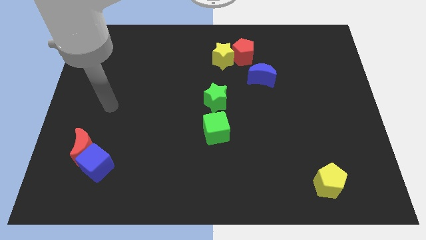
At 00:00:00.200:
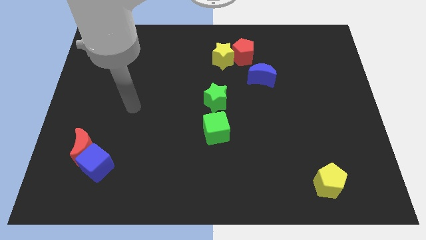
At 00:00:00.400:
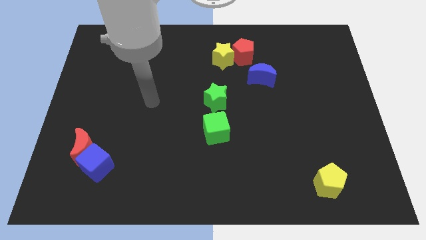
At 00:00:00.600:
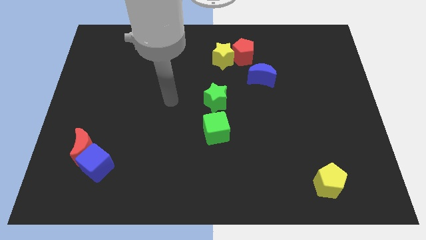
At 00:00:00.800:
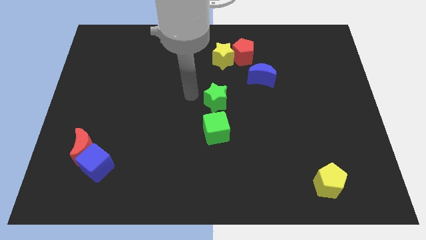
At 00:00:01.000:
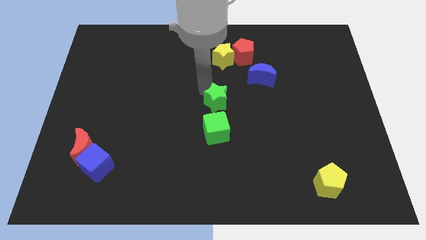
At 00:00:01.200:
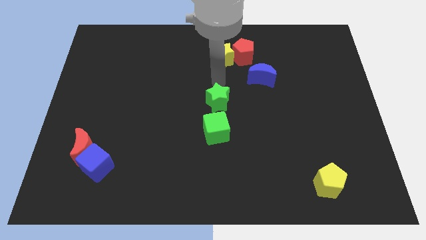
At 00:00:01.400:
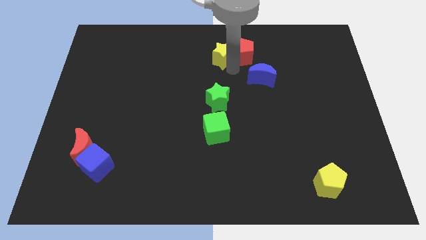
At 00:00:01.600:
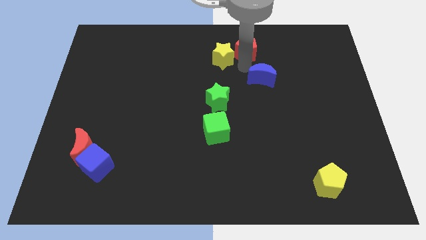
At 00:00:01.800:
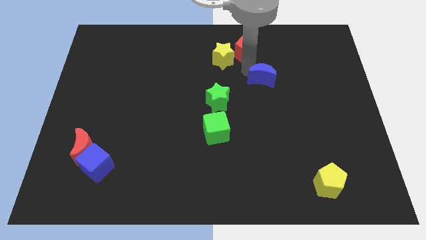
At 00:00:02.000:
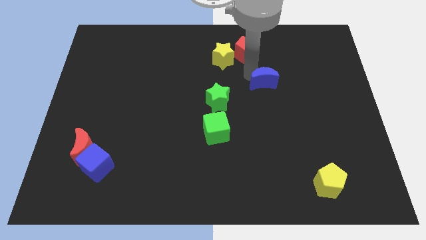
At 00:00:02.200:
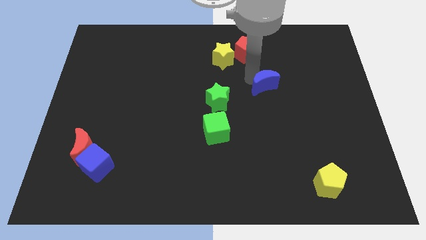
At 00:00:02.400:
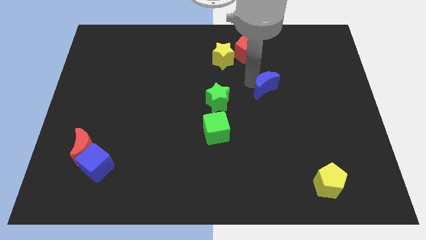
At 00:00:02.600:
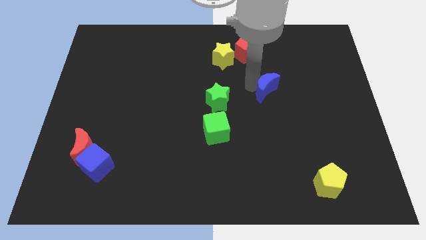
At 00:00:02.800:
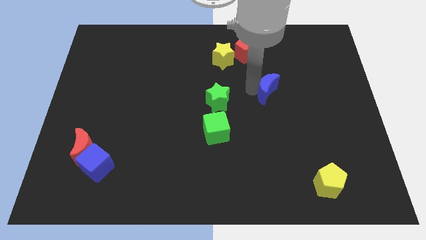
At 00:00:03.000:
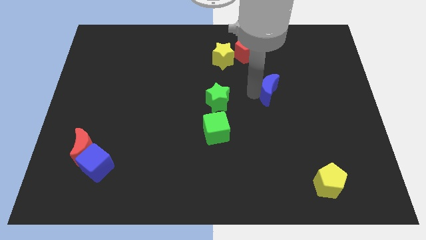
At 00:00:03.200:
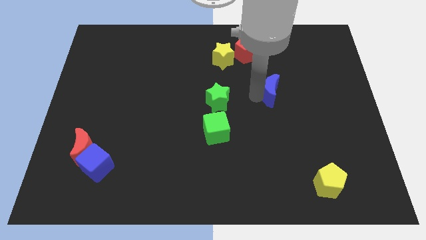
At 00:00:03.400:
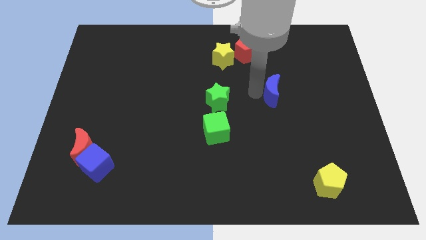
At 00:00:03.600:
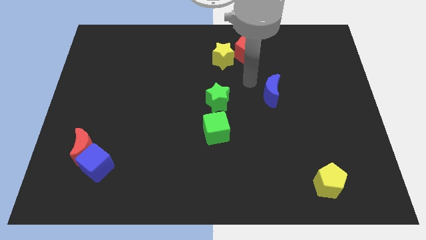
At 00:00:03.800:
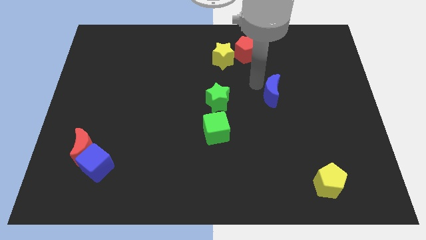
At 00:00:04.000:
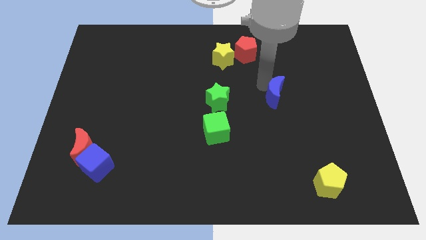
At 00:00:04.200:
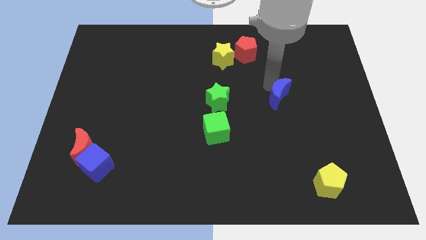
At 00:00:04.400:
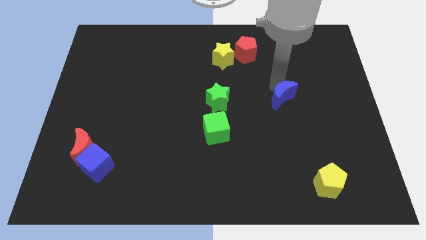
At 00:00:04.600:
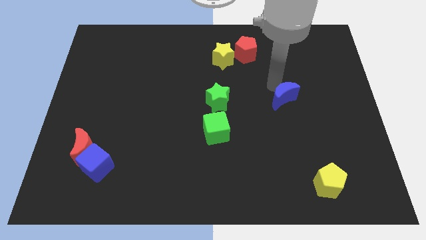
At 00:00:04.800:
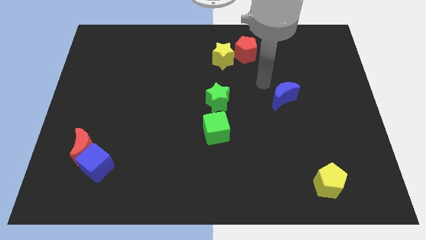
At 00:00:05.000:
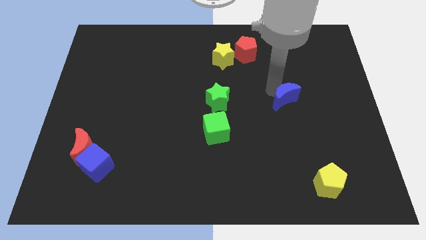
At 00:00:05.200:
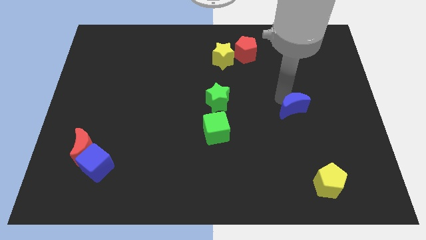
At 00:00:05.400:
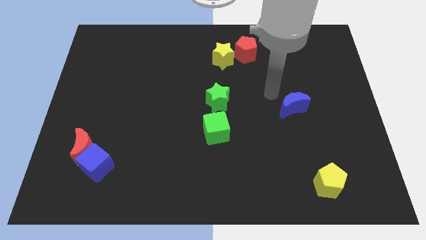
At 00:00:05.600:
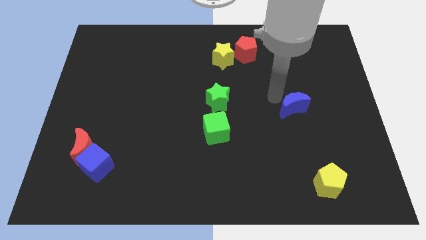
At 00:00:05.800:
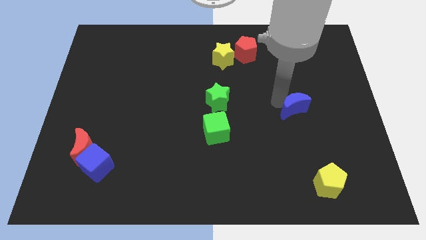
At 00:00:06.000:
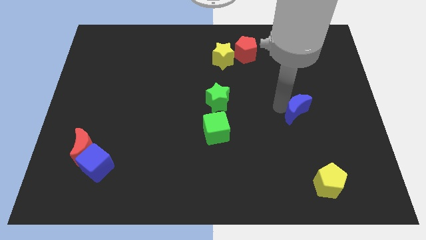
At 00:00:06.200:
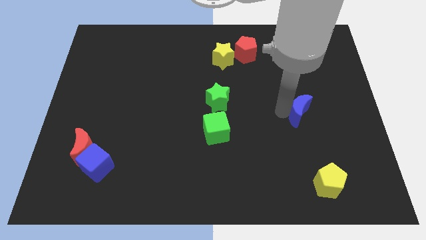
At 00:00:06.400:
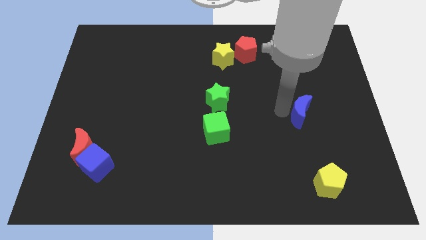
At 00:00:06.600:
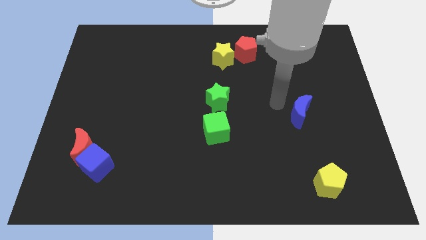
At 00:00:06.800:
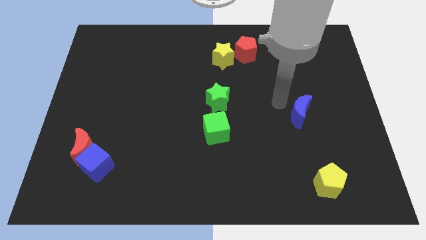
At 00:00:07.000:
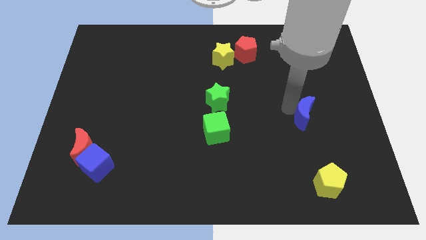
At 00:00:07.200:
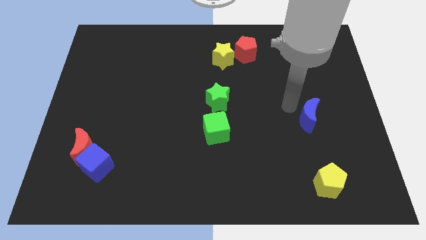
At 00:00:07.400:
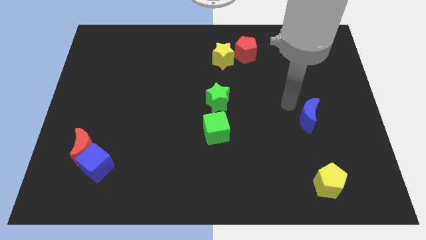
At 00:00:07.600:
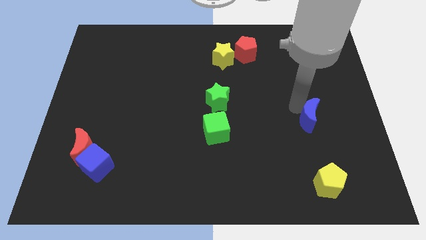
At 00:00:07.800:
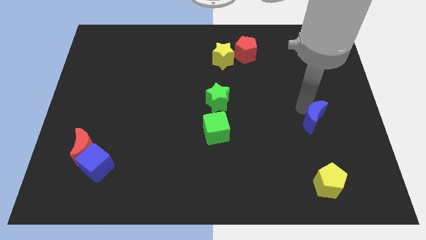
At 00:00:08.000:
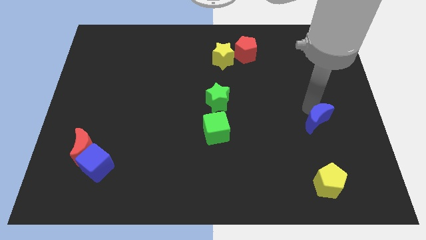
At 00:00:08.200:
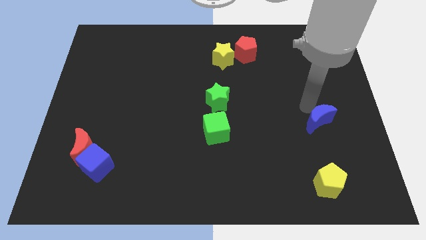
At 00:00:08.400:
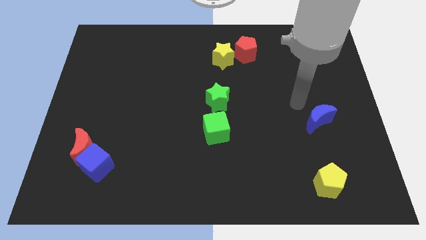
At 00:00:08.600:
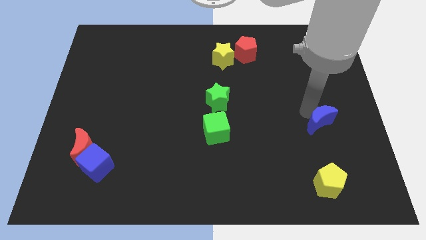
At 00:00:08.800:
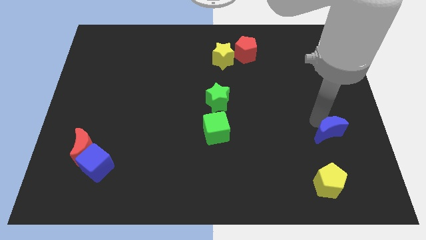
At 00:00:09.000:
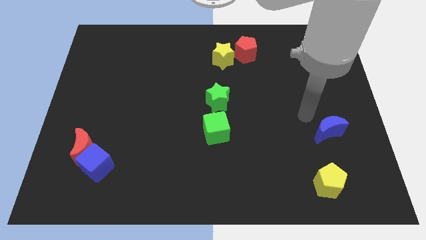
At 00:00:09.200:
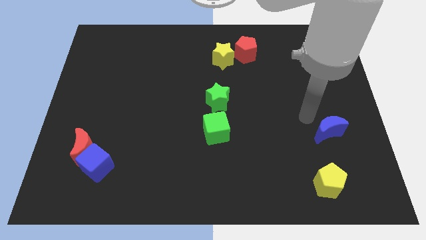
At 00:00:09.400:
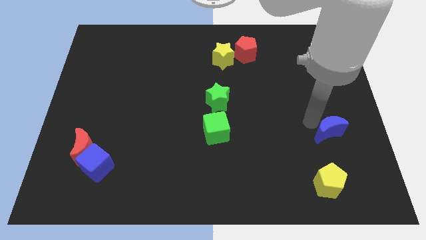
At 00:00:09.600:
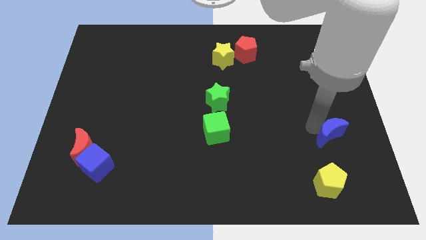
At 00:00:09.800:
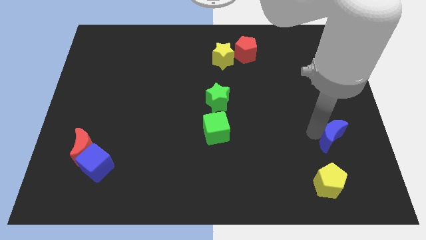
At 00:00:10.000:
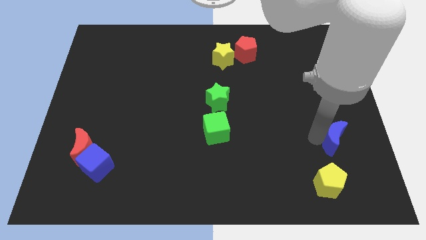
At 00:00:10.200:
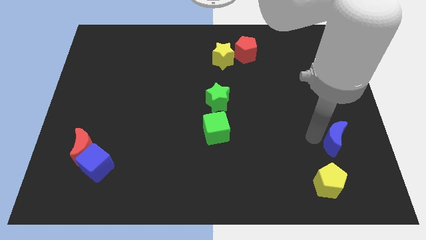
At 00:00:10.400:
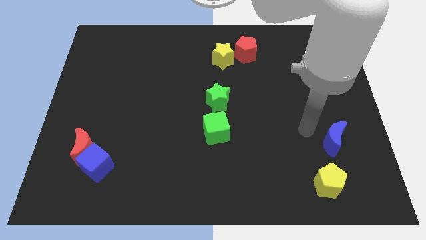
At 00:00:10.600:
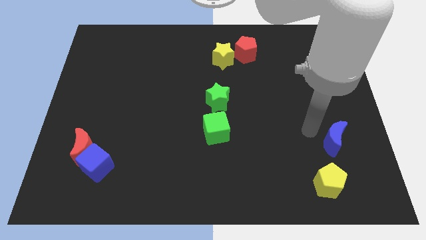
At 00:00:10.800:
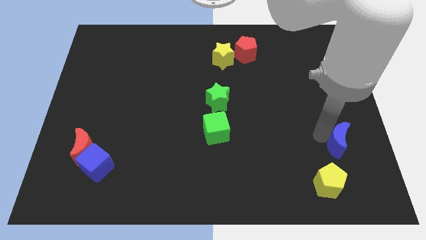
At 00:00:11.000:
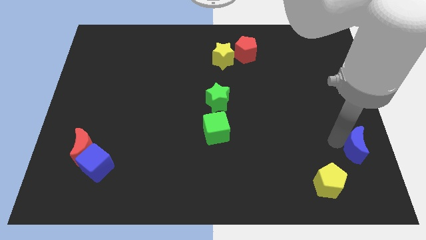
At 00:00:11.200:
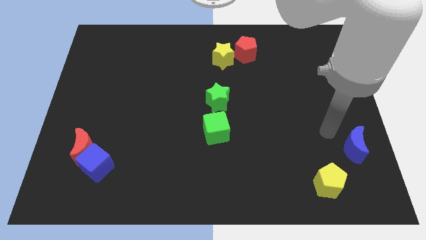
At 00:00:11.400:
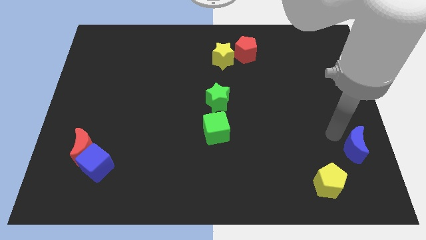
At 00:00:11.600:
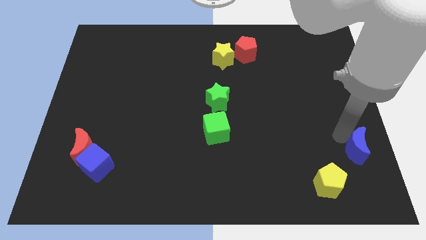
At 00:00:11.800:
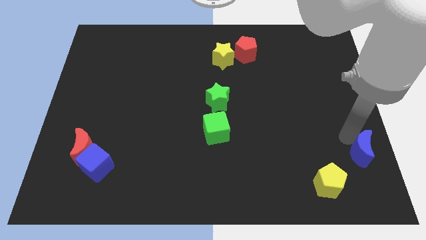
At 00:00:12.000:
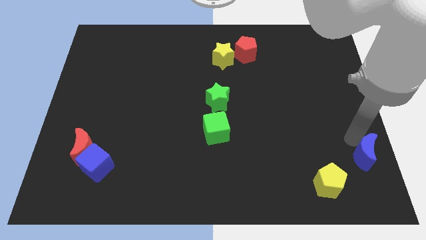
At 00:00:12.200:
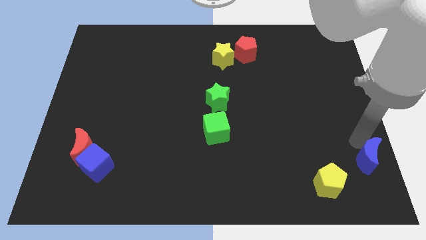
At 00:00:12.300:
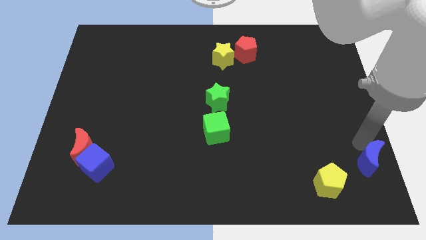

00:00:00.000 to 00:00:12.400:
put the blue moon to the bottom right corner
